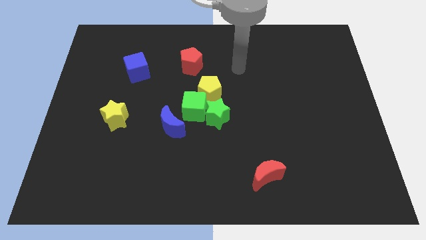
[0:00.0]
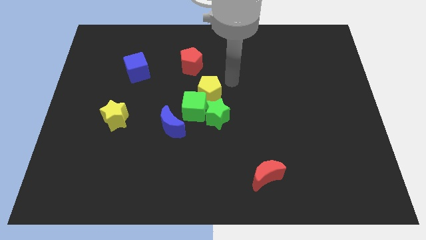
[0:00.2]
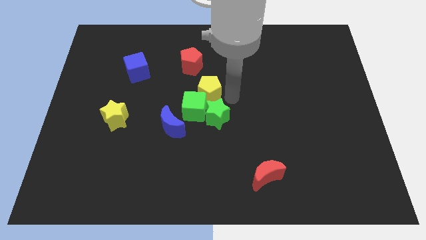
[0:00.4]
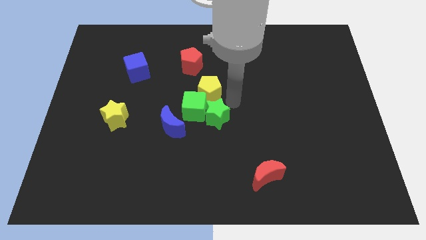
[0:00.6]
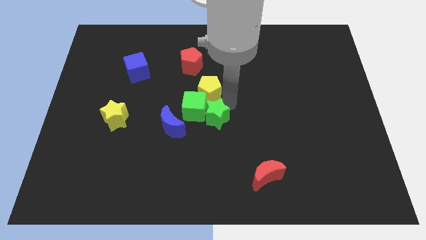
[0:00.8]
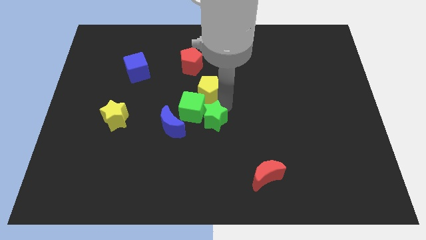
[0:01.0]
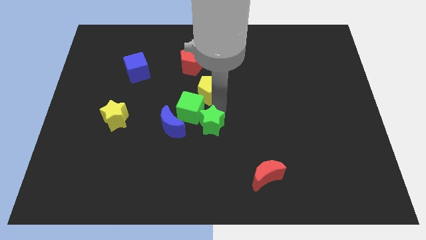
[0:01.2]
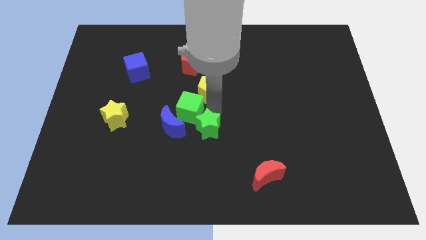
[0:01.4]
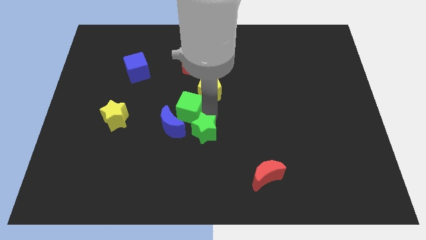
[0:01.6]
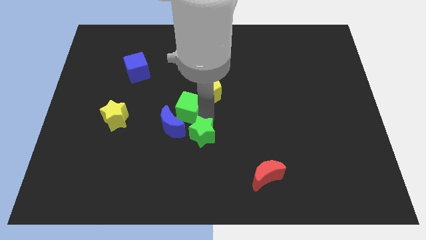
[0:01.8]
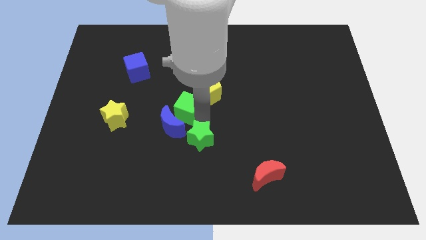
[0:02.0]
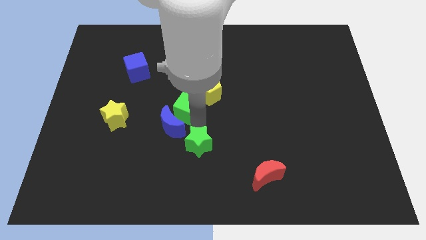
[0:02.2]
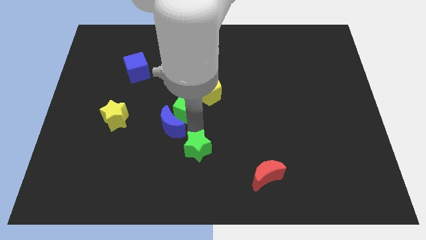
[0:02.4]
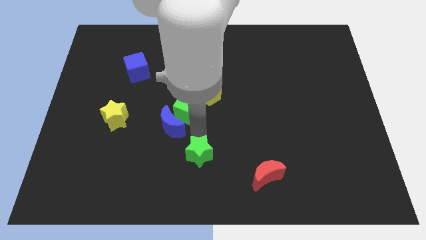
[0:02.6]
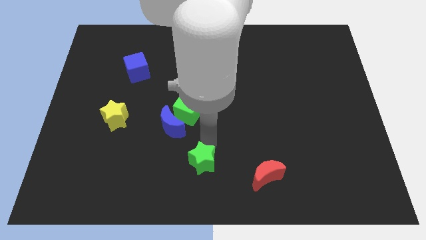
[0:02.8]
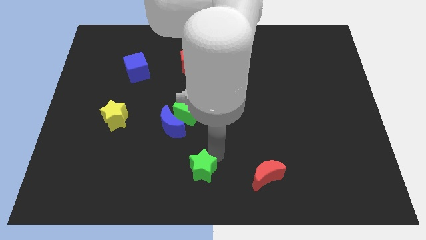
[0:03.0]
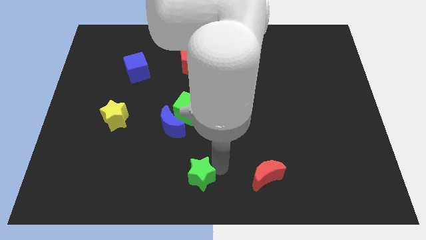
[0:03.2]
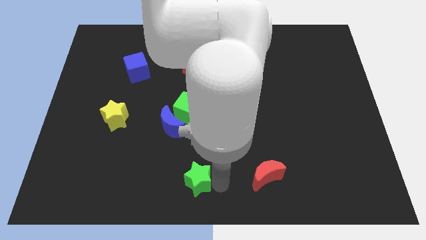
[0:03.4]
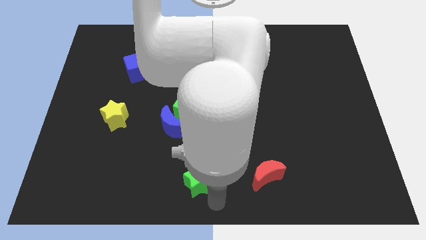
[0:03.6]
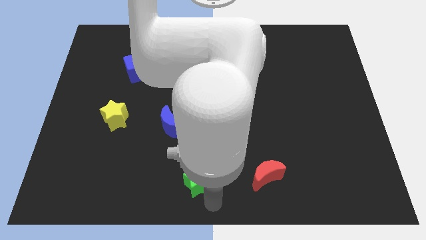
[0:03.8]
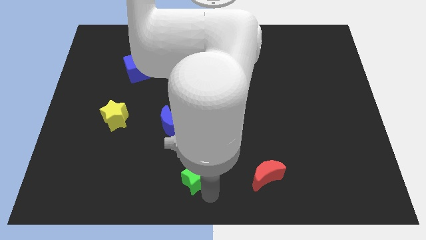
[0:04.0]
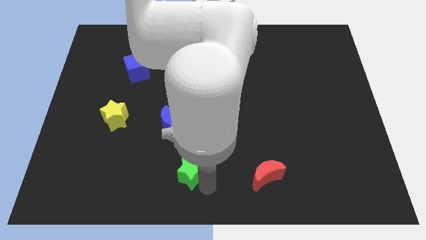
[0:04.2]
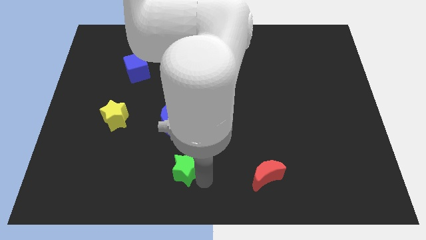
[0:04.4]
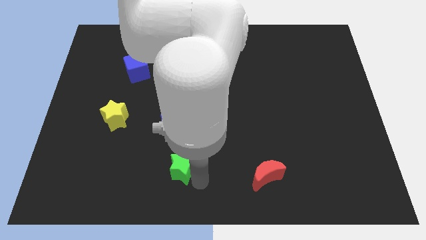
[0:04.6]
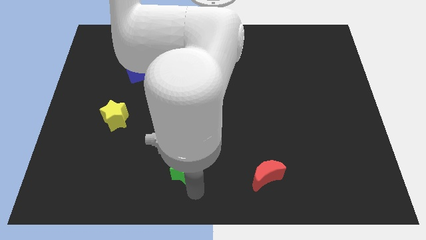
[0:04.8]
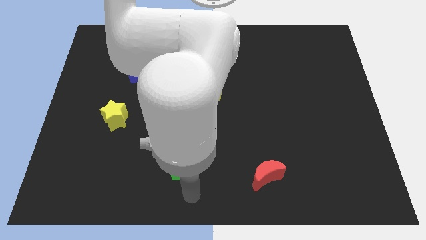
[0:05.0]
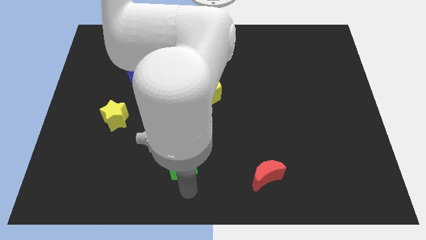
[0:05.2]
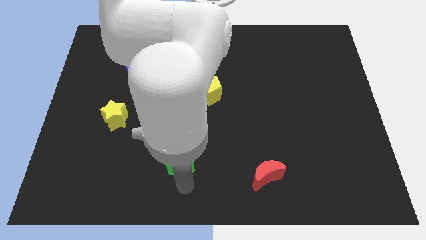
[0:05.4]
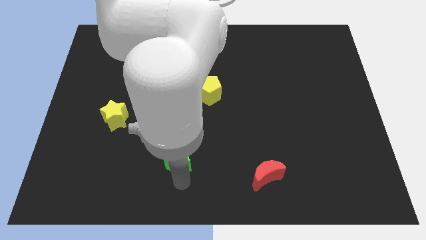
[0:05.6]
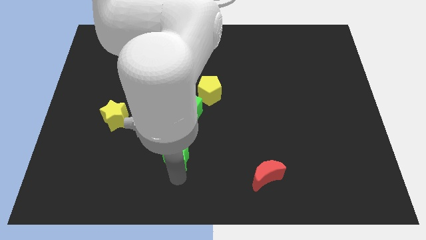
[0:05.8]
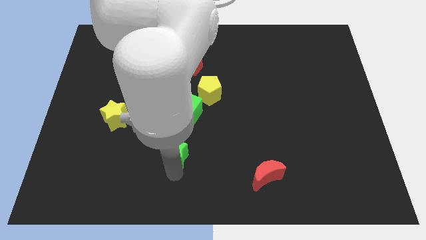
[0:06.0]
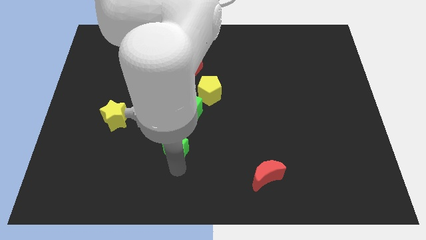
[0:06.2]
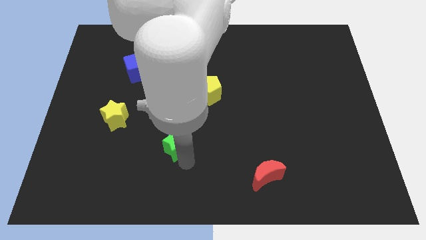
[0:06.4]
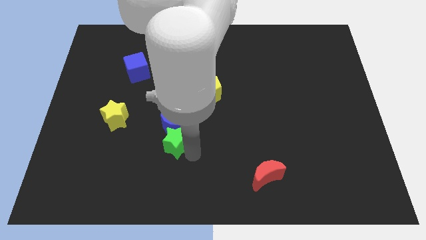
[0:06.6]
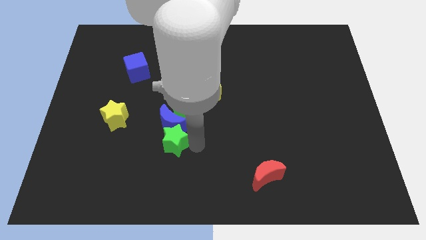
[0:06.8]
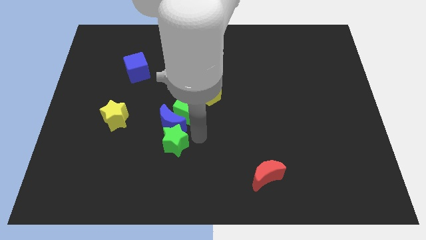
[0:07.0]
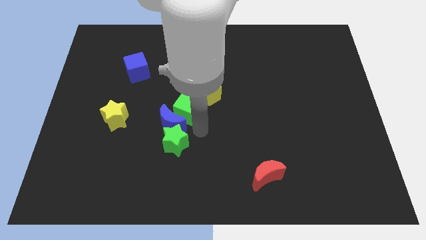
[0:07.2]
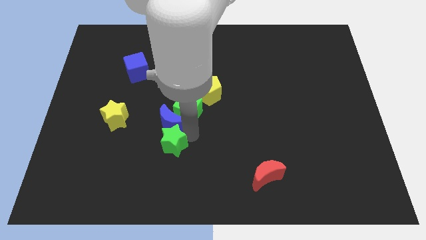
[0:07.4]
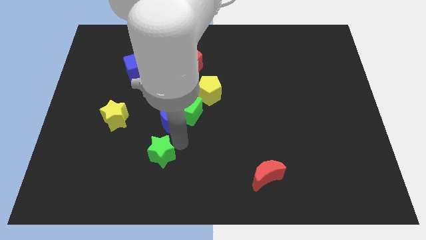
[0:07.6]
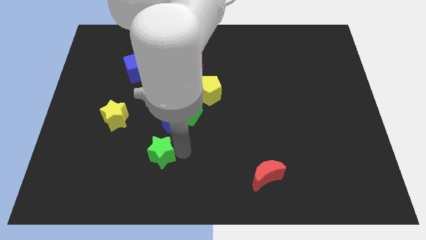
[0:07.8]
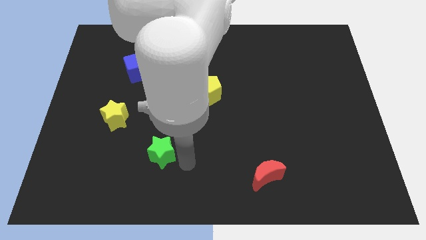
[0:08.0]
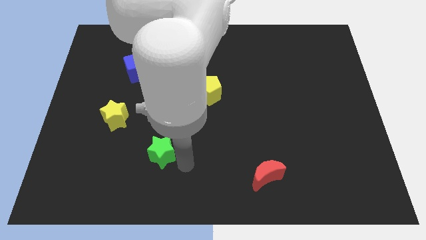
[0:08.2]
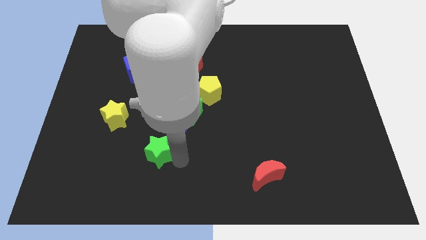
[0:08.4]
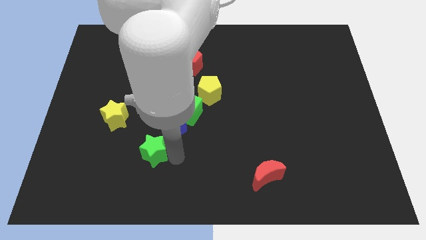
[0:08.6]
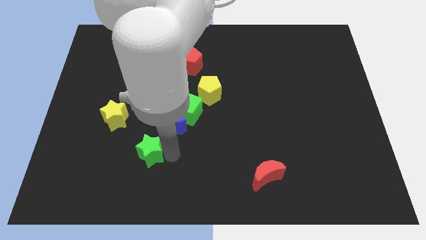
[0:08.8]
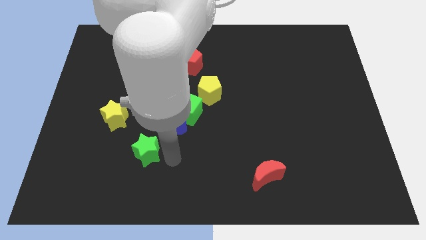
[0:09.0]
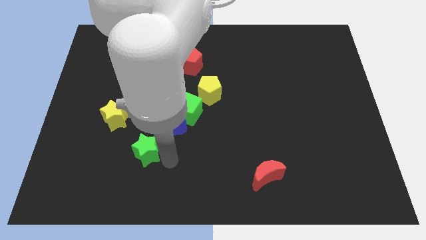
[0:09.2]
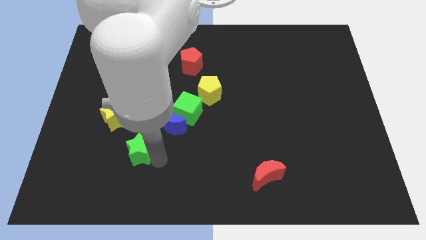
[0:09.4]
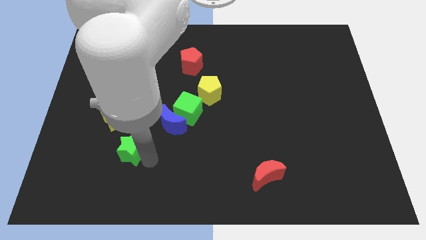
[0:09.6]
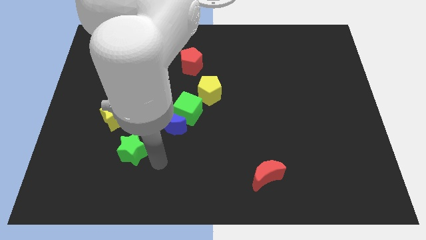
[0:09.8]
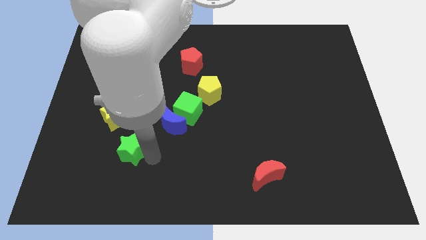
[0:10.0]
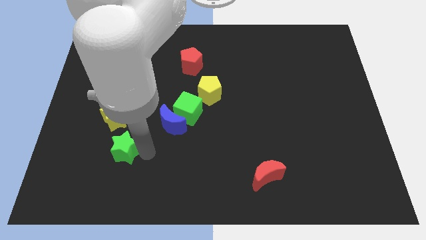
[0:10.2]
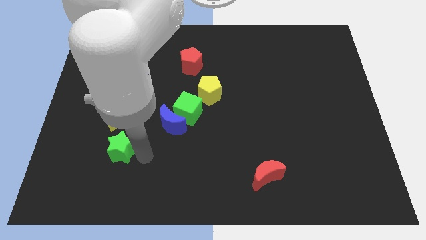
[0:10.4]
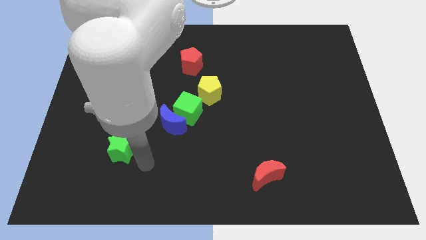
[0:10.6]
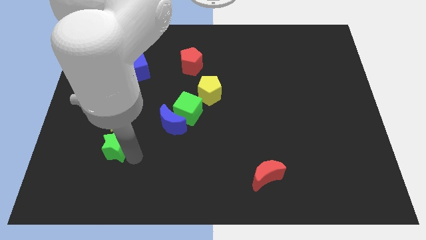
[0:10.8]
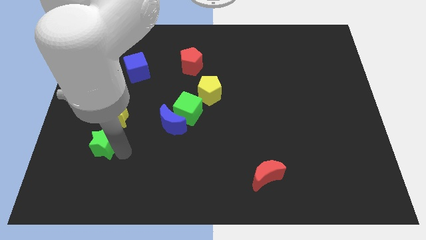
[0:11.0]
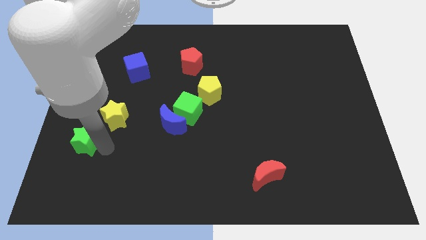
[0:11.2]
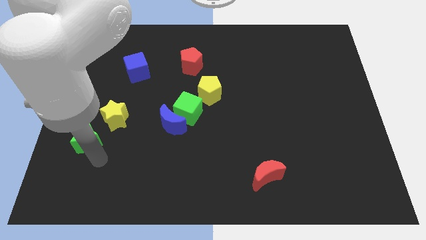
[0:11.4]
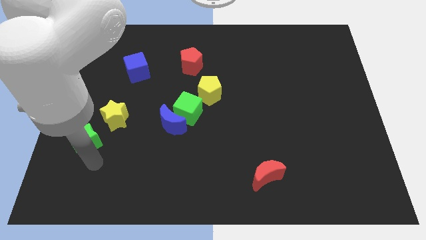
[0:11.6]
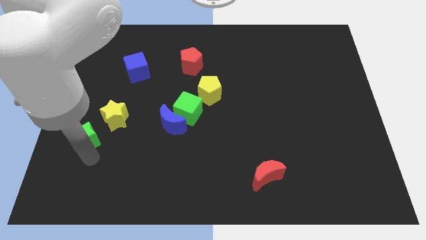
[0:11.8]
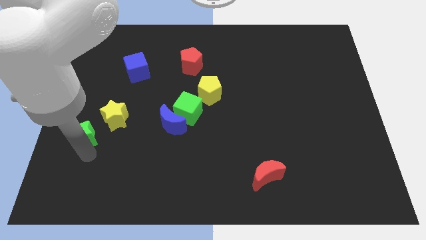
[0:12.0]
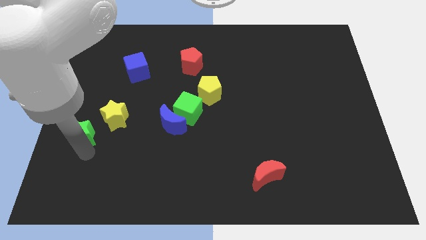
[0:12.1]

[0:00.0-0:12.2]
move the green star to the left side
